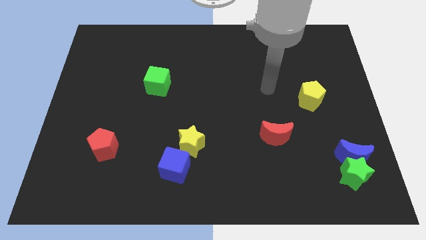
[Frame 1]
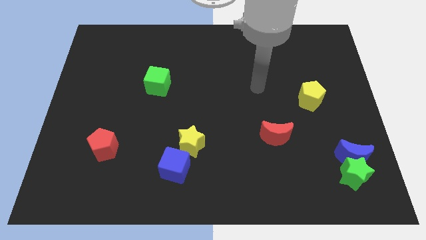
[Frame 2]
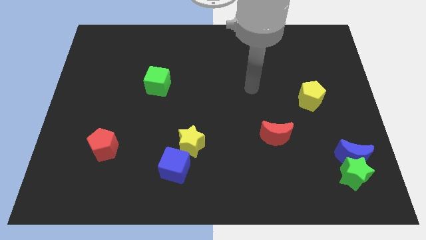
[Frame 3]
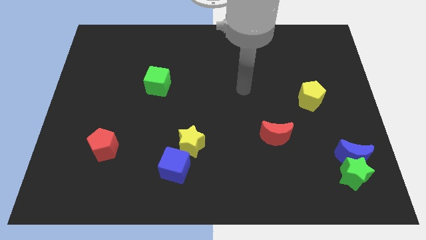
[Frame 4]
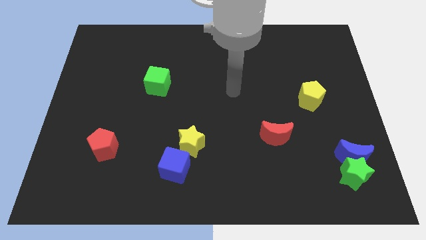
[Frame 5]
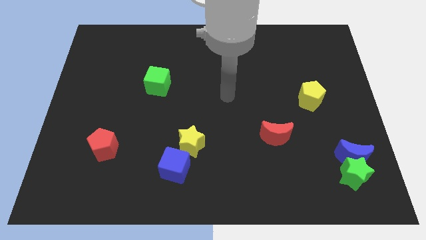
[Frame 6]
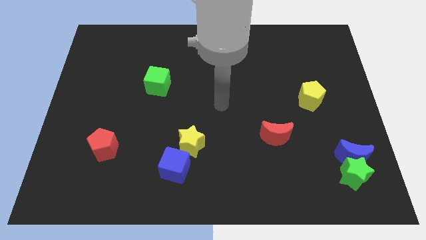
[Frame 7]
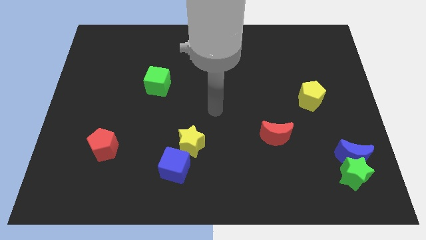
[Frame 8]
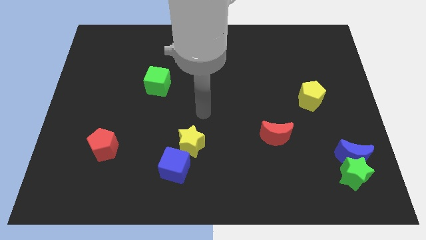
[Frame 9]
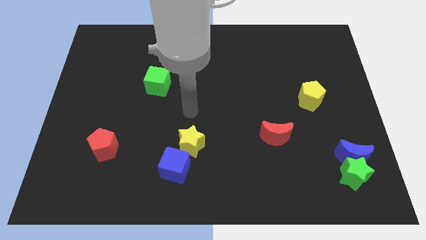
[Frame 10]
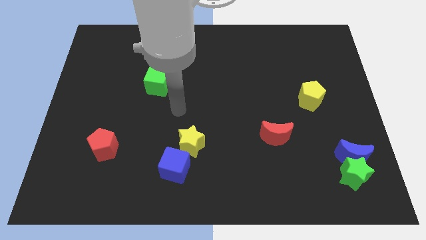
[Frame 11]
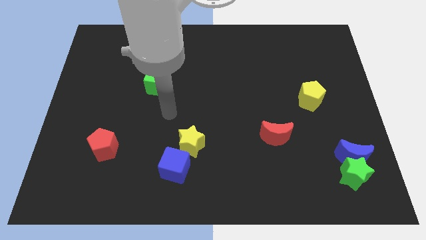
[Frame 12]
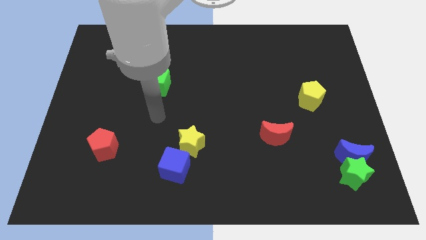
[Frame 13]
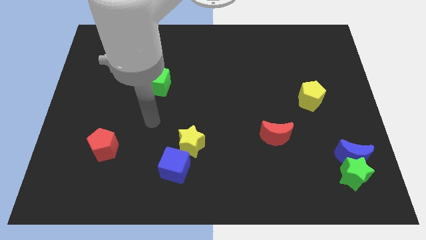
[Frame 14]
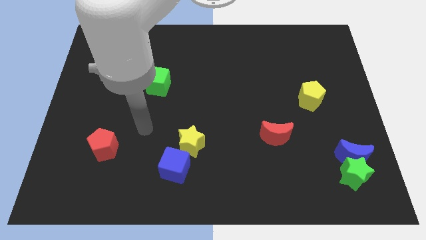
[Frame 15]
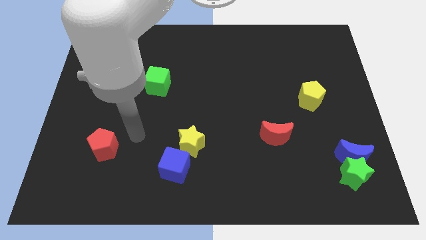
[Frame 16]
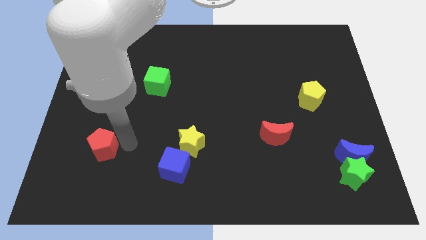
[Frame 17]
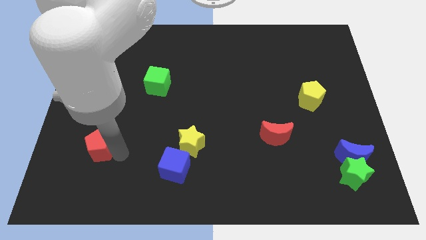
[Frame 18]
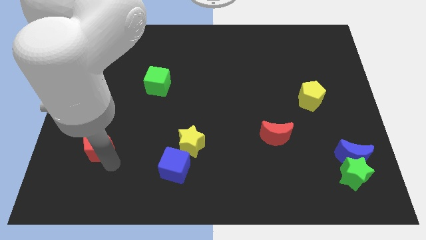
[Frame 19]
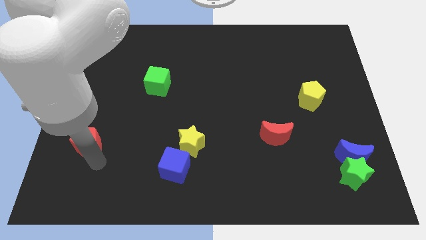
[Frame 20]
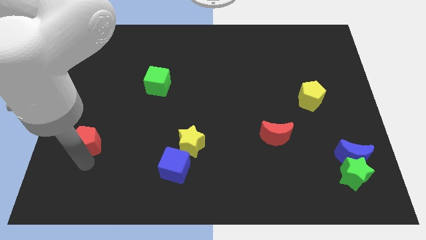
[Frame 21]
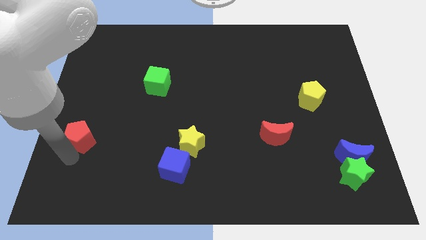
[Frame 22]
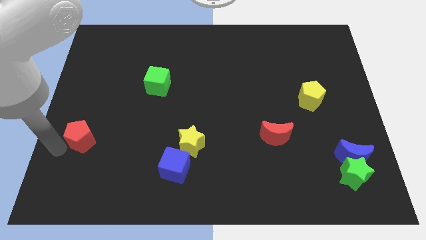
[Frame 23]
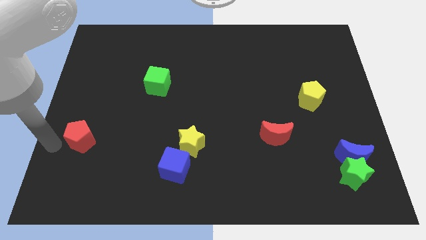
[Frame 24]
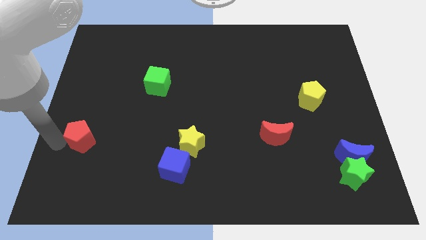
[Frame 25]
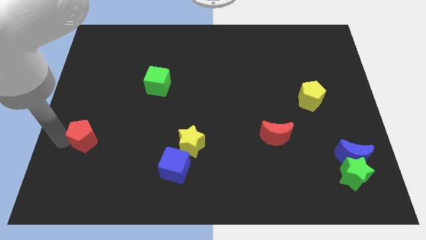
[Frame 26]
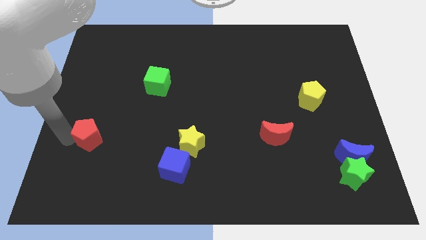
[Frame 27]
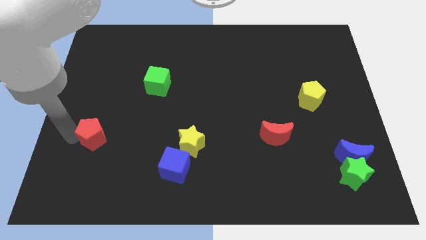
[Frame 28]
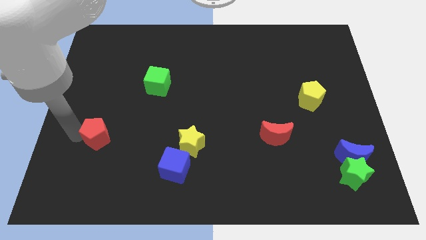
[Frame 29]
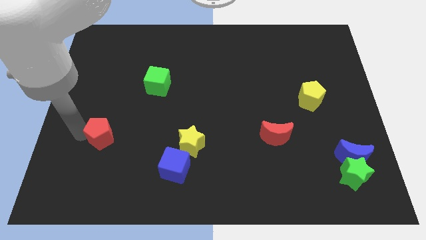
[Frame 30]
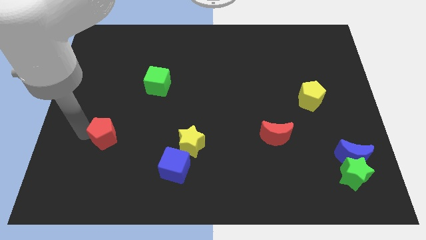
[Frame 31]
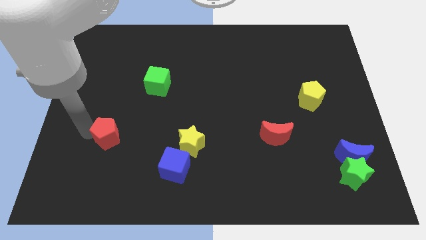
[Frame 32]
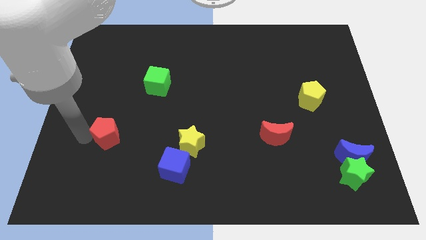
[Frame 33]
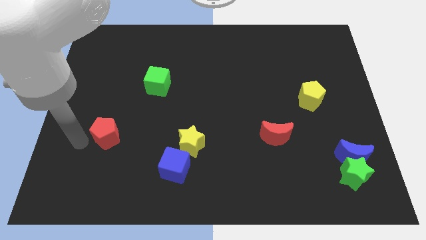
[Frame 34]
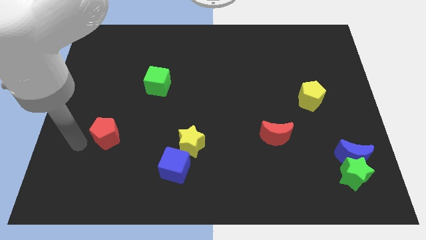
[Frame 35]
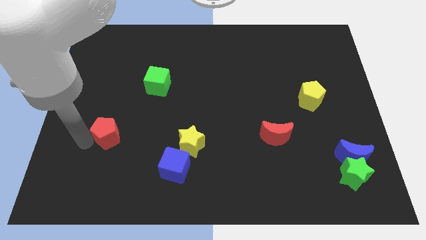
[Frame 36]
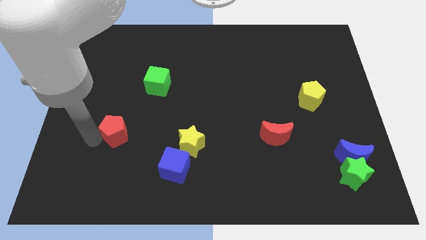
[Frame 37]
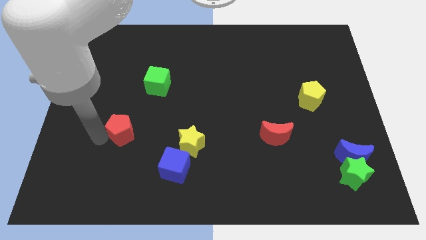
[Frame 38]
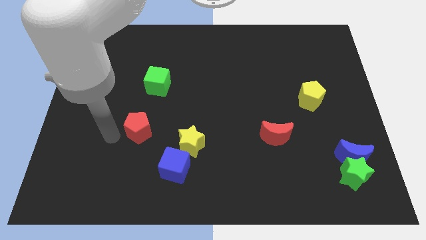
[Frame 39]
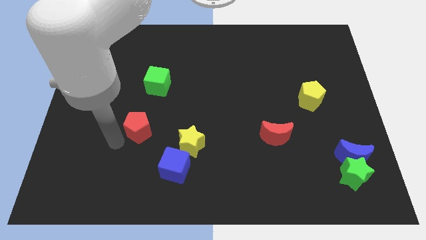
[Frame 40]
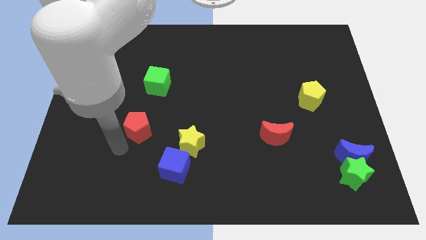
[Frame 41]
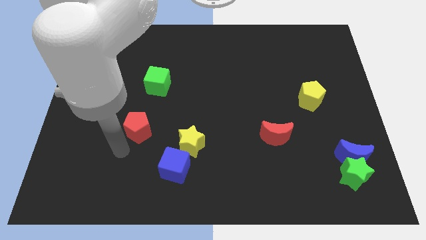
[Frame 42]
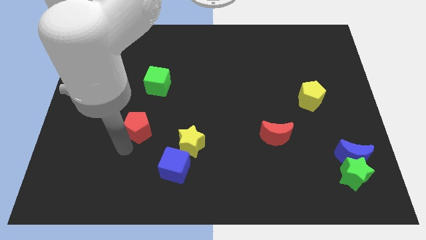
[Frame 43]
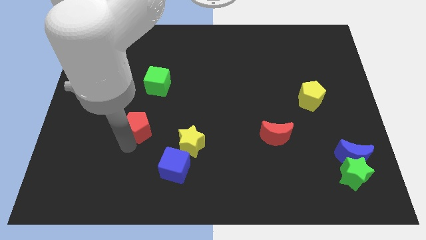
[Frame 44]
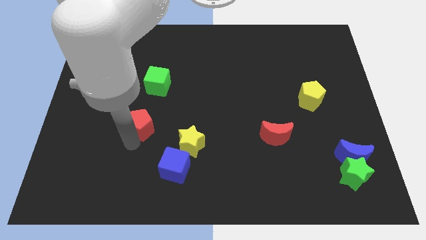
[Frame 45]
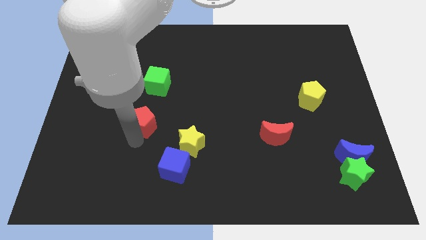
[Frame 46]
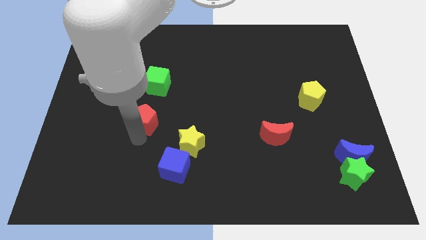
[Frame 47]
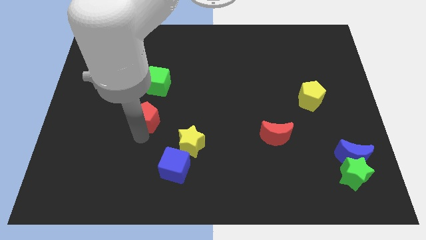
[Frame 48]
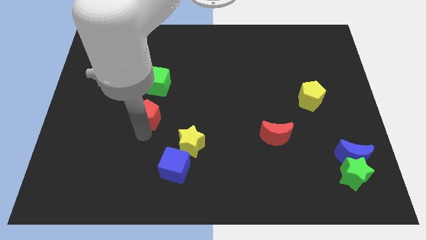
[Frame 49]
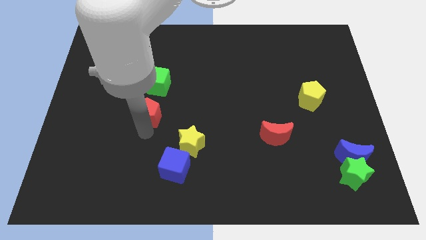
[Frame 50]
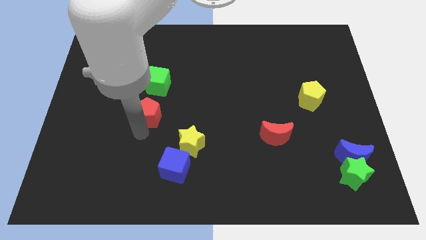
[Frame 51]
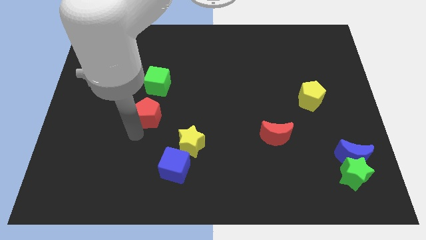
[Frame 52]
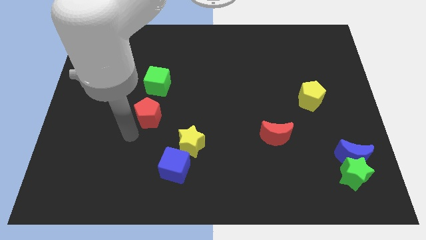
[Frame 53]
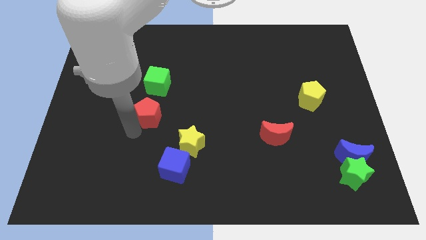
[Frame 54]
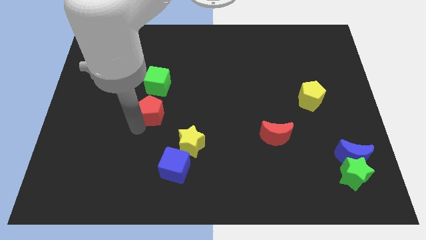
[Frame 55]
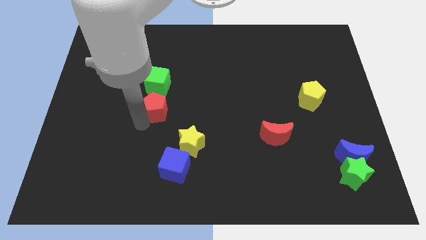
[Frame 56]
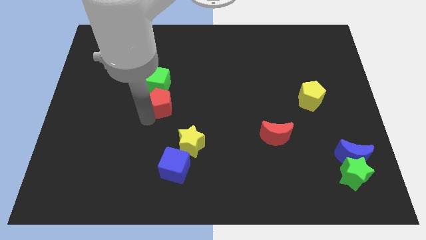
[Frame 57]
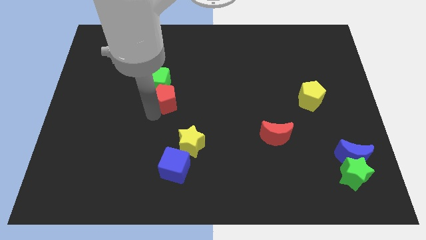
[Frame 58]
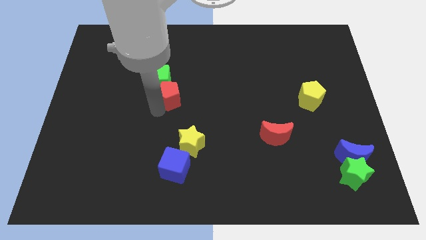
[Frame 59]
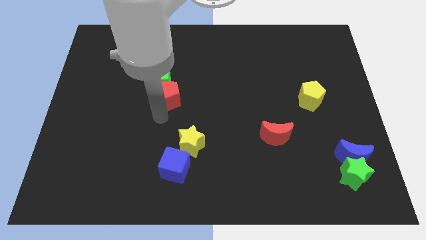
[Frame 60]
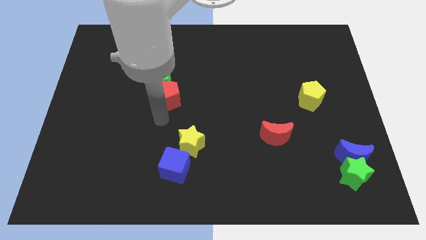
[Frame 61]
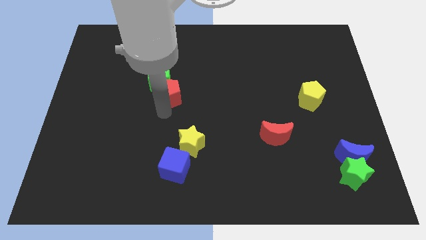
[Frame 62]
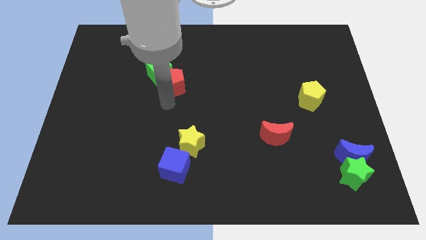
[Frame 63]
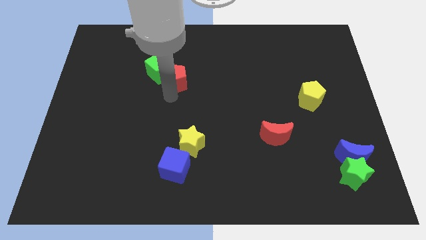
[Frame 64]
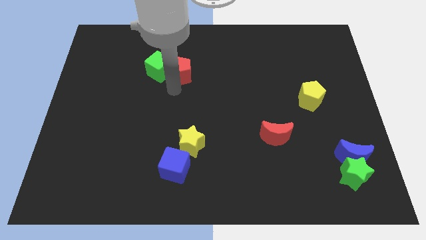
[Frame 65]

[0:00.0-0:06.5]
push the red pentagon to the top right of the green cube
